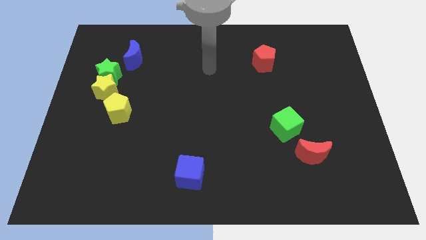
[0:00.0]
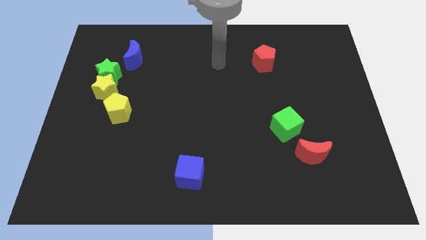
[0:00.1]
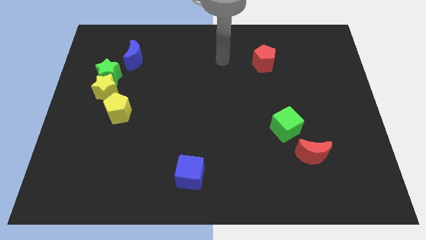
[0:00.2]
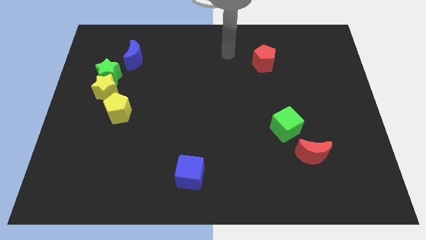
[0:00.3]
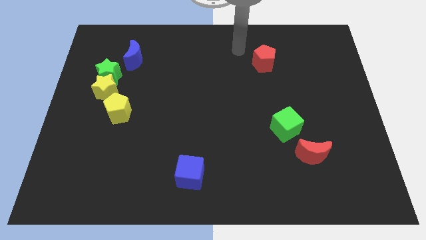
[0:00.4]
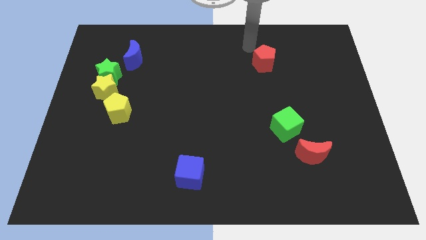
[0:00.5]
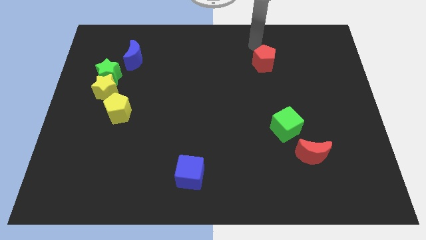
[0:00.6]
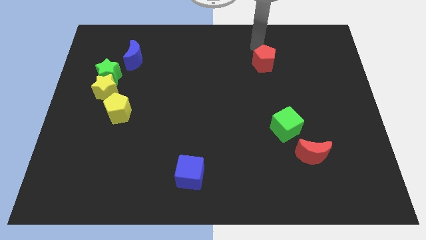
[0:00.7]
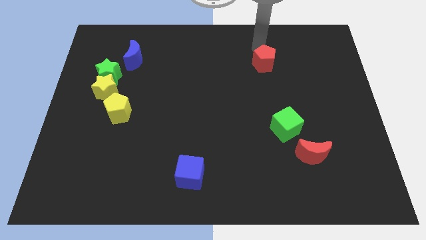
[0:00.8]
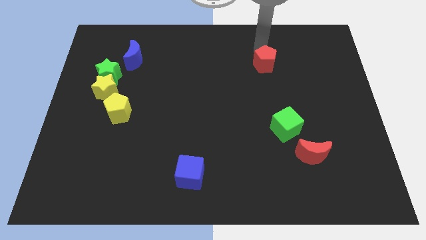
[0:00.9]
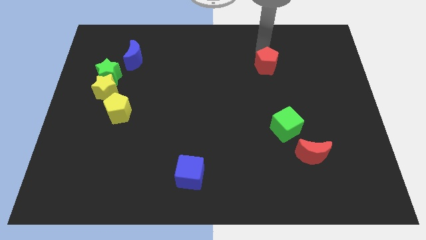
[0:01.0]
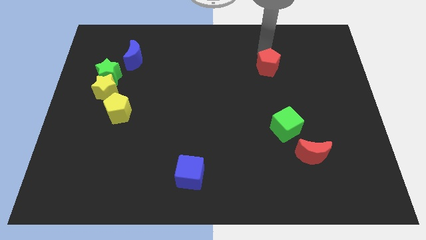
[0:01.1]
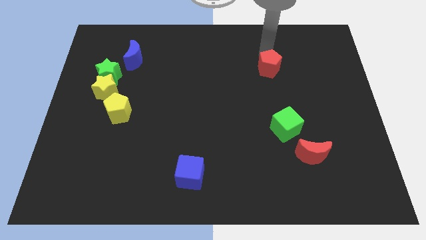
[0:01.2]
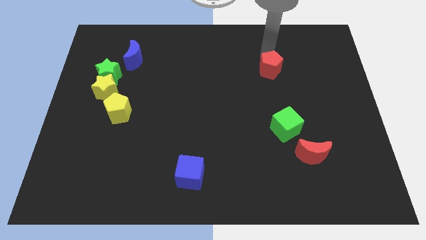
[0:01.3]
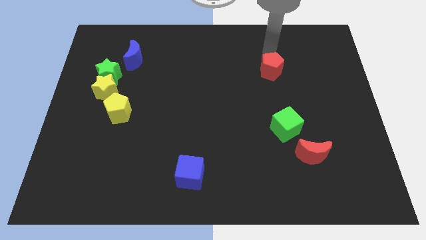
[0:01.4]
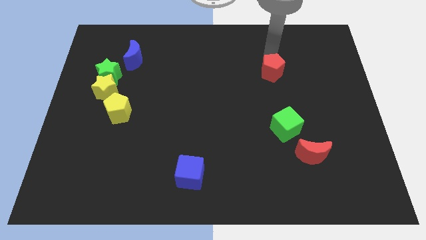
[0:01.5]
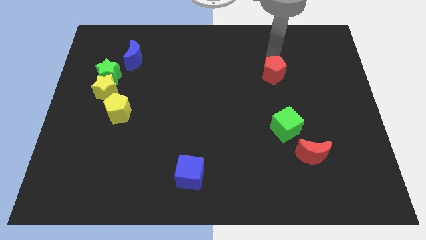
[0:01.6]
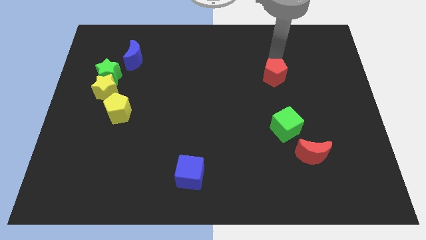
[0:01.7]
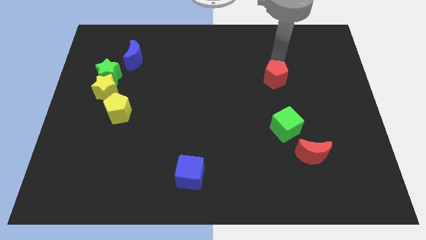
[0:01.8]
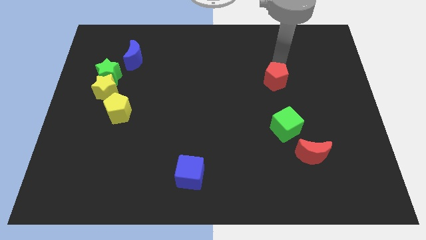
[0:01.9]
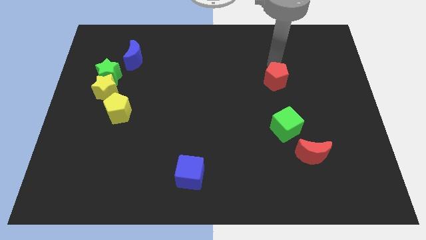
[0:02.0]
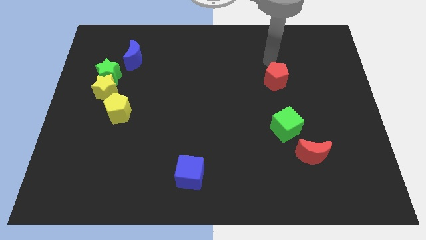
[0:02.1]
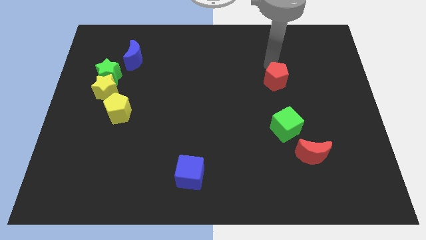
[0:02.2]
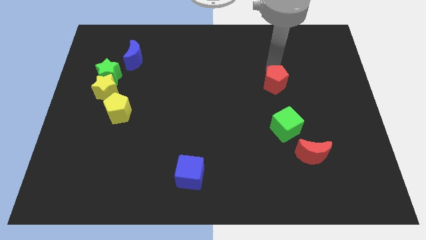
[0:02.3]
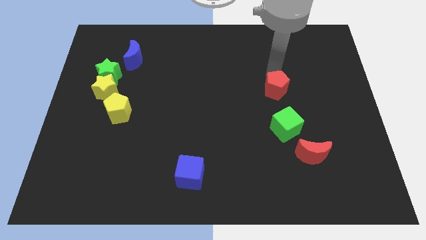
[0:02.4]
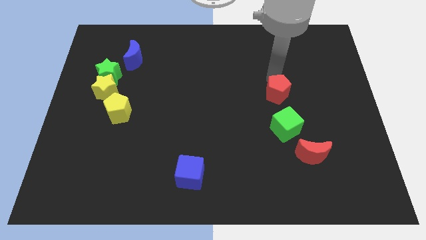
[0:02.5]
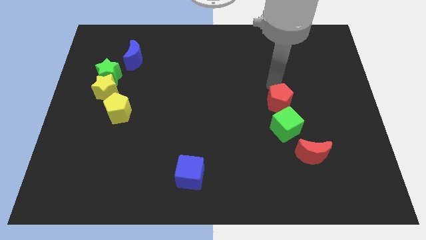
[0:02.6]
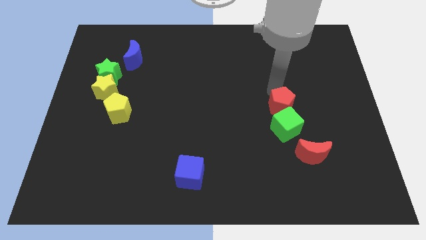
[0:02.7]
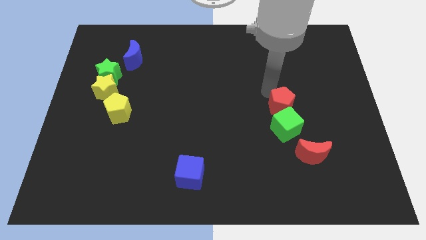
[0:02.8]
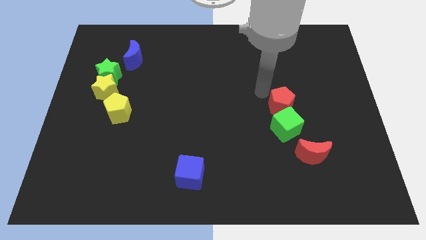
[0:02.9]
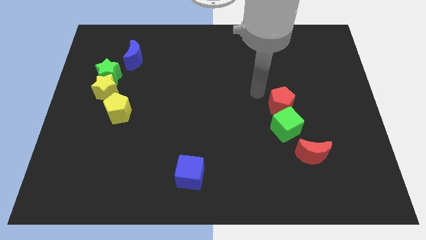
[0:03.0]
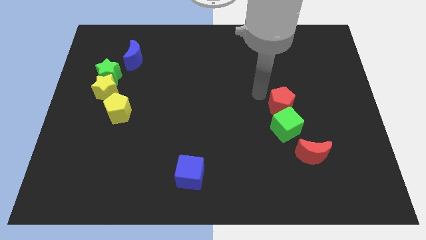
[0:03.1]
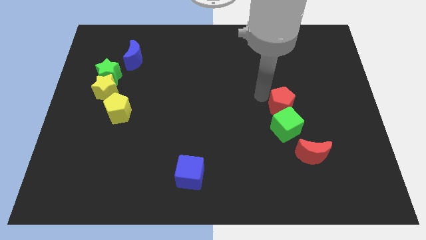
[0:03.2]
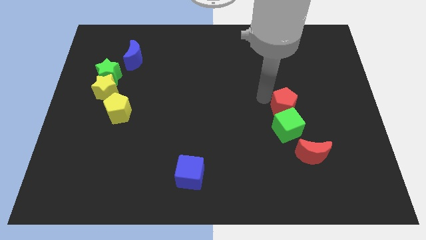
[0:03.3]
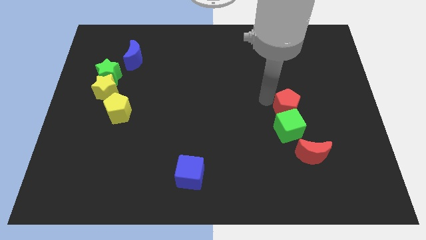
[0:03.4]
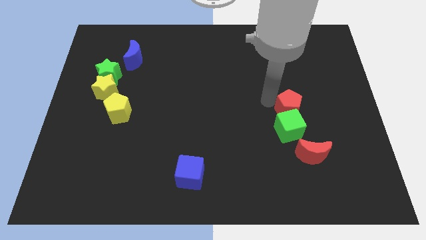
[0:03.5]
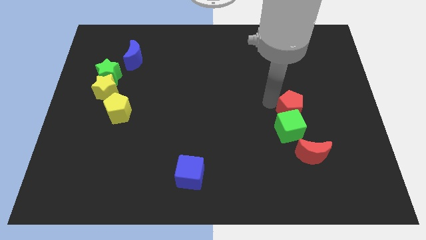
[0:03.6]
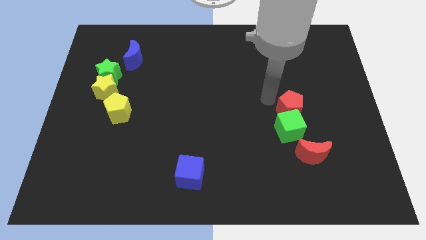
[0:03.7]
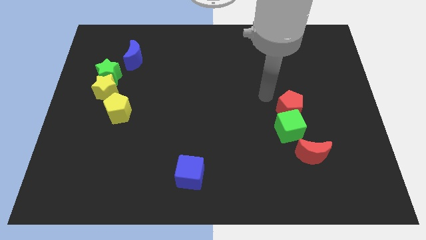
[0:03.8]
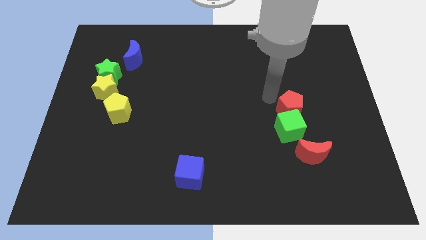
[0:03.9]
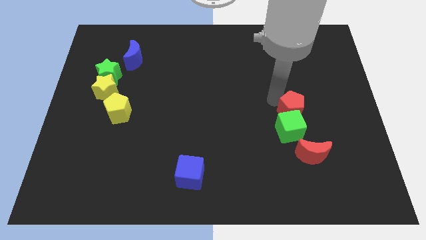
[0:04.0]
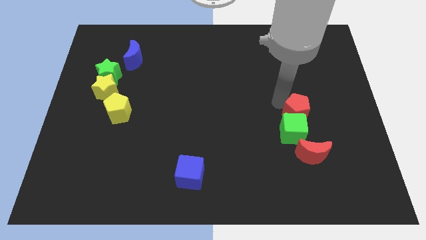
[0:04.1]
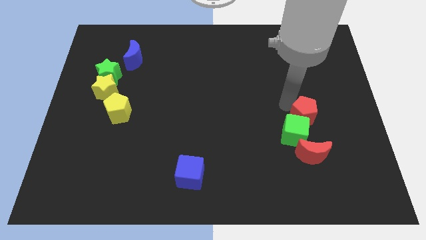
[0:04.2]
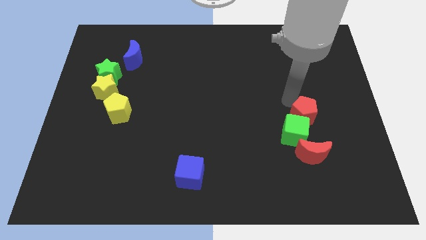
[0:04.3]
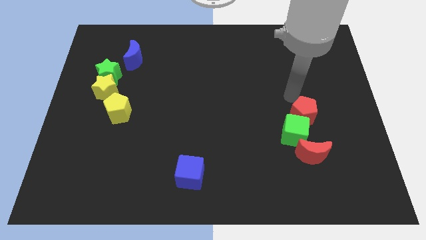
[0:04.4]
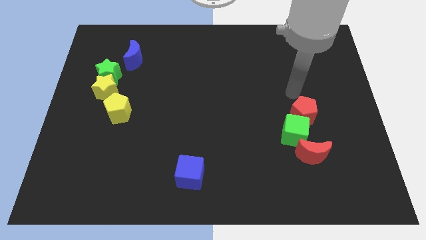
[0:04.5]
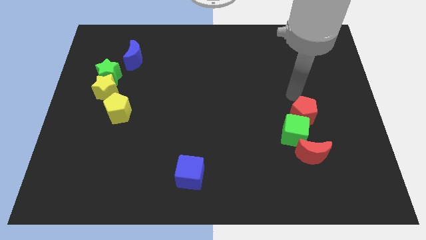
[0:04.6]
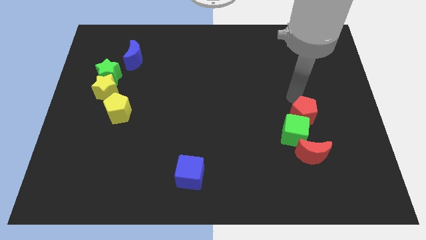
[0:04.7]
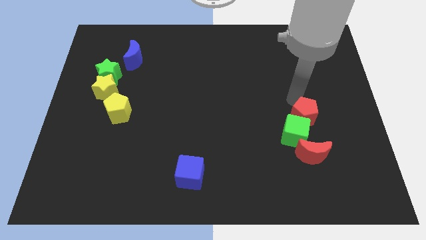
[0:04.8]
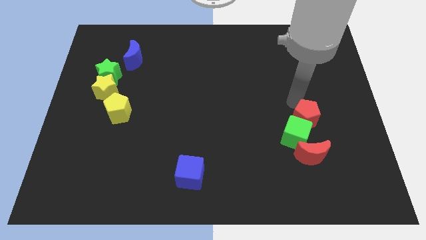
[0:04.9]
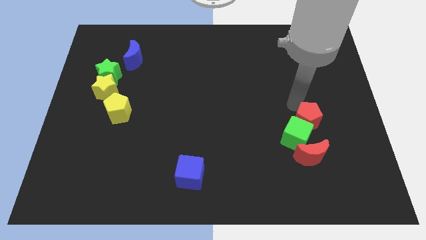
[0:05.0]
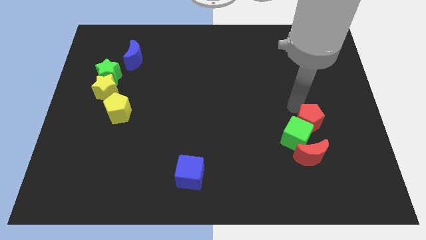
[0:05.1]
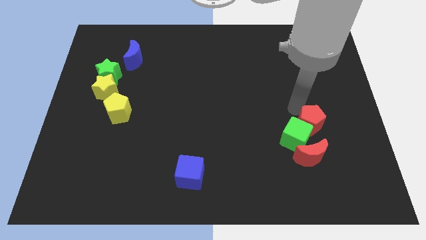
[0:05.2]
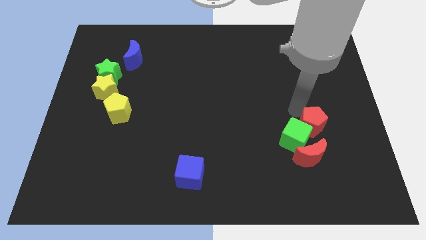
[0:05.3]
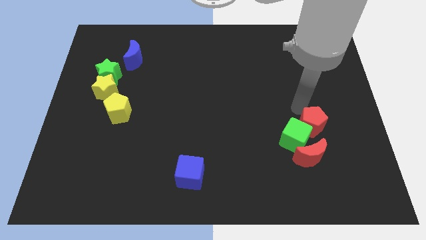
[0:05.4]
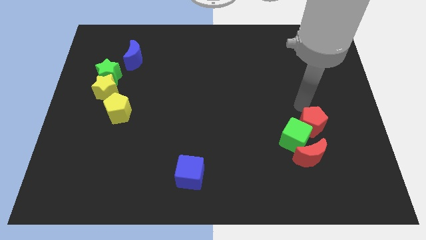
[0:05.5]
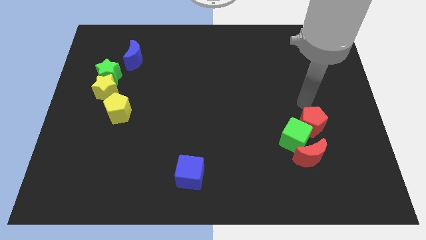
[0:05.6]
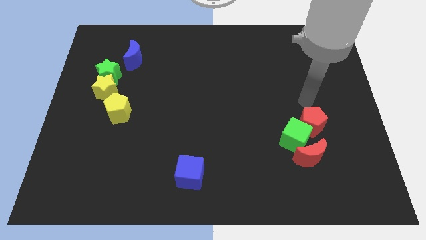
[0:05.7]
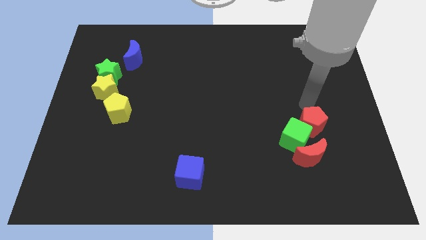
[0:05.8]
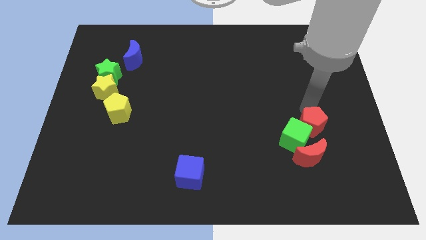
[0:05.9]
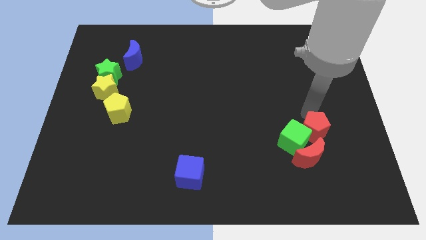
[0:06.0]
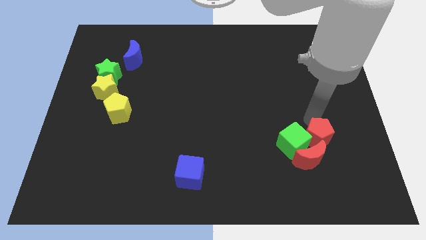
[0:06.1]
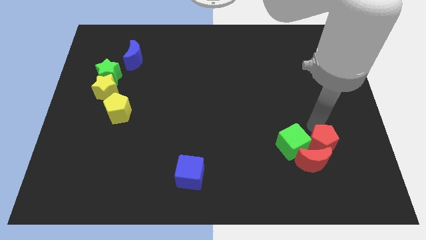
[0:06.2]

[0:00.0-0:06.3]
put the red pentagon close to the red moon
